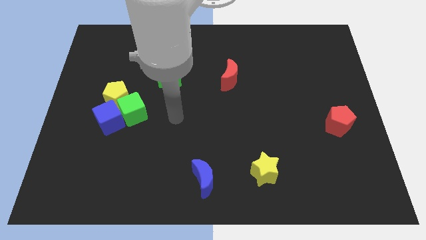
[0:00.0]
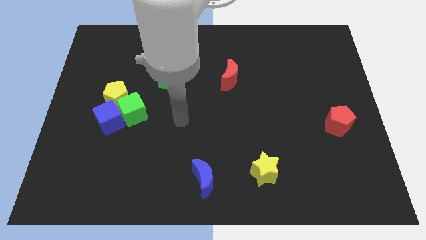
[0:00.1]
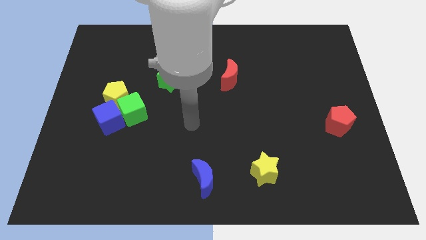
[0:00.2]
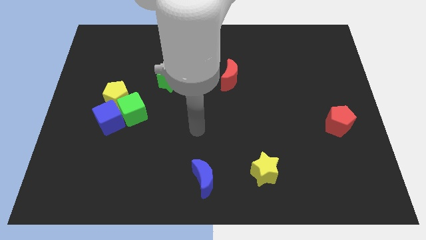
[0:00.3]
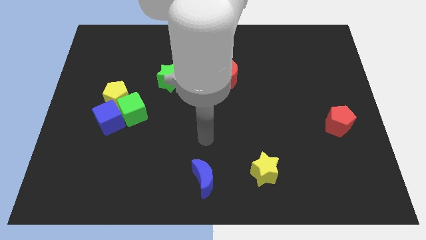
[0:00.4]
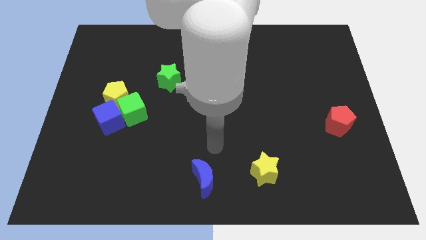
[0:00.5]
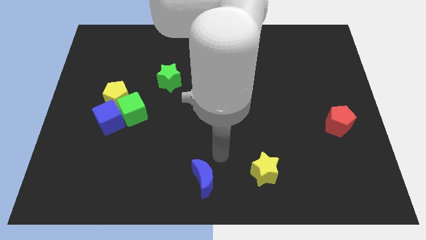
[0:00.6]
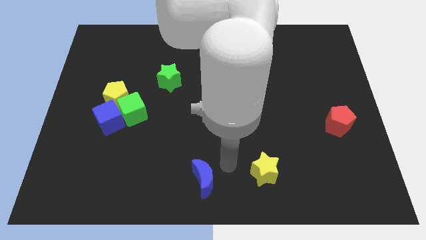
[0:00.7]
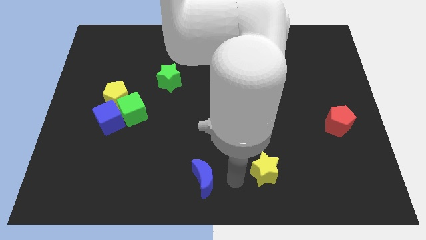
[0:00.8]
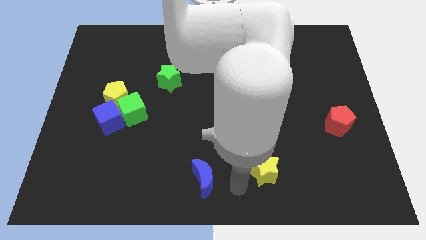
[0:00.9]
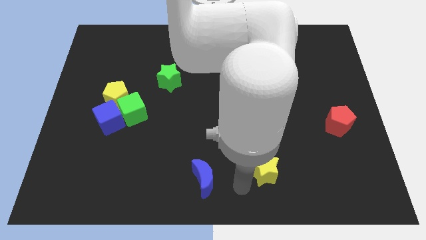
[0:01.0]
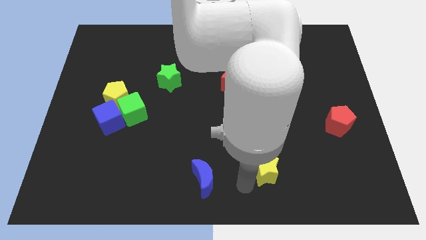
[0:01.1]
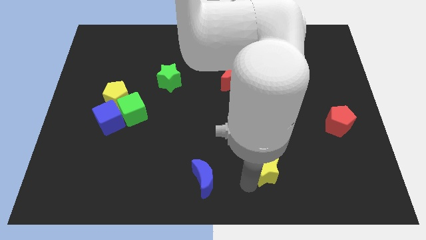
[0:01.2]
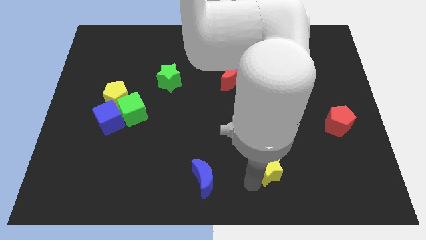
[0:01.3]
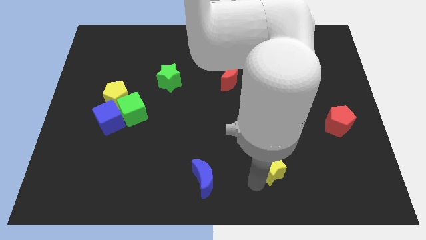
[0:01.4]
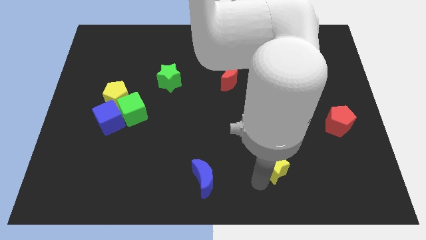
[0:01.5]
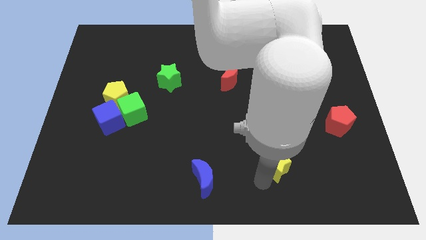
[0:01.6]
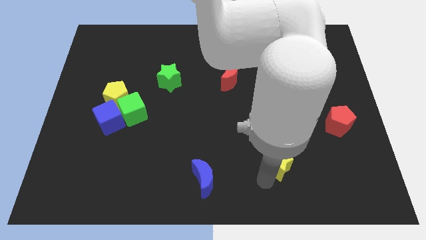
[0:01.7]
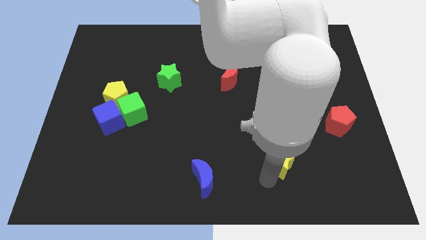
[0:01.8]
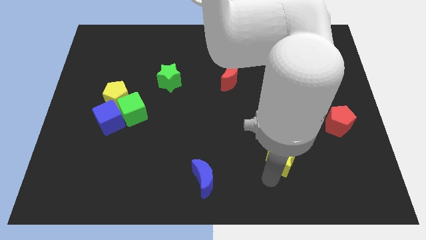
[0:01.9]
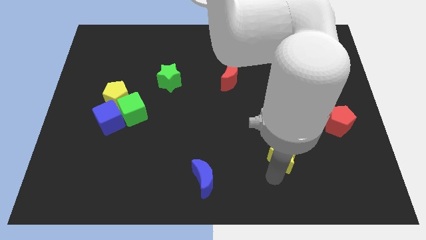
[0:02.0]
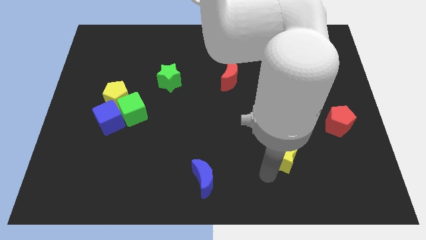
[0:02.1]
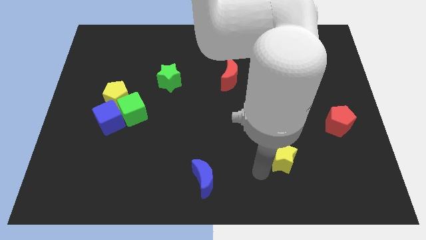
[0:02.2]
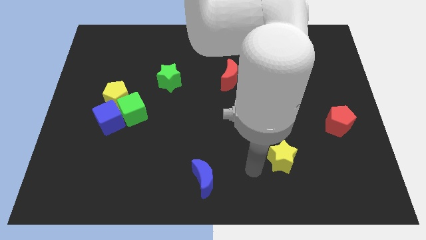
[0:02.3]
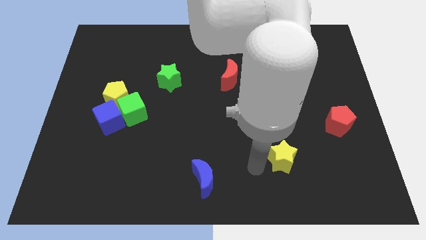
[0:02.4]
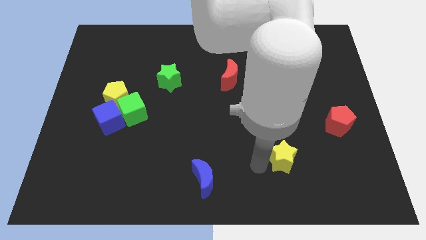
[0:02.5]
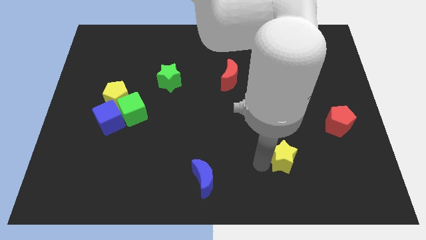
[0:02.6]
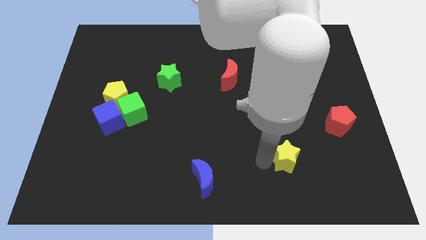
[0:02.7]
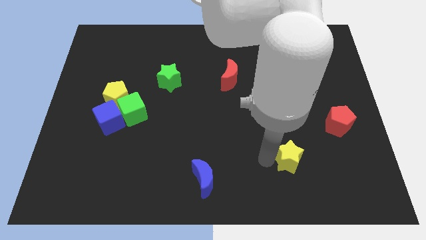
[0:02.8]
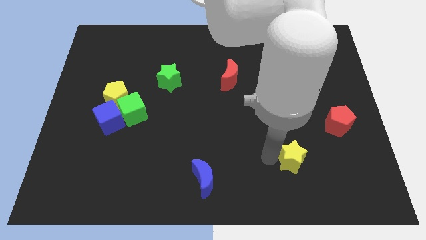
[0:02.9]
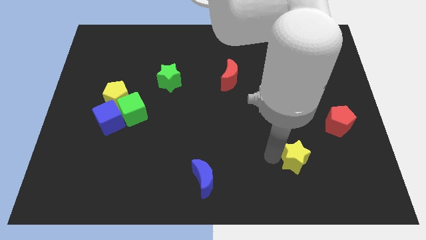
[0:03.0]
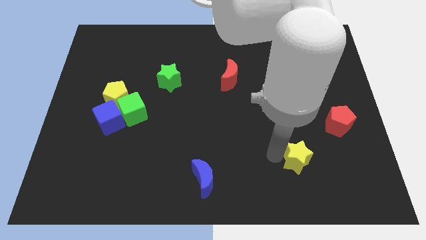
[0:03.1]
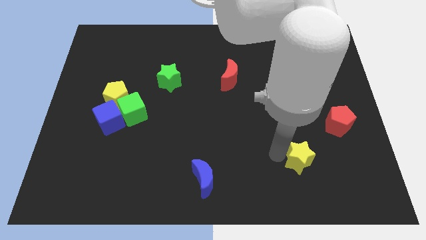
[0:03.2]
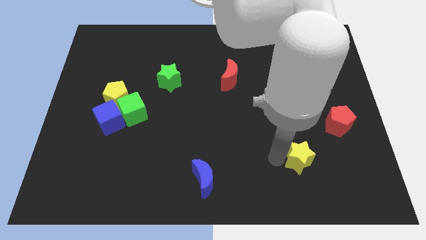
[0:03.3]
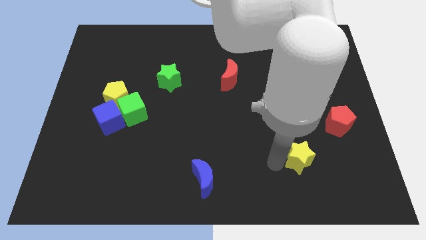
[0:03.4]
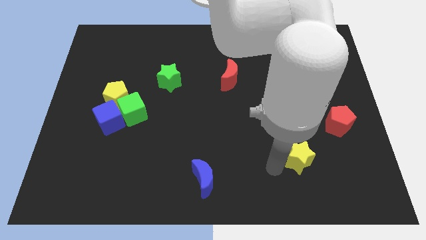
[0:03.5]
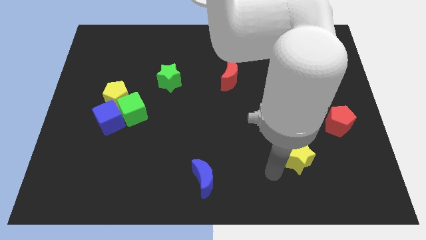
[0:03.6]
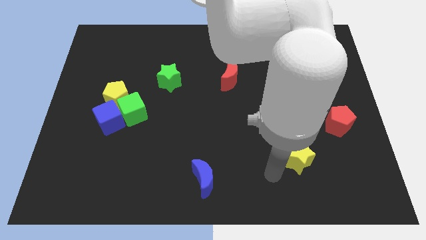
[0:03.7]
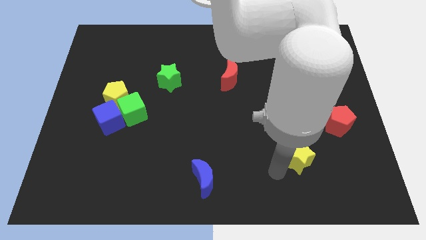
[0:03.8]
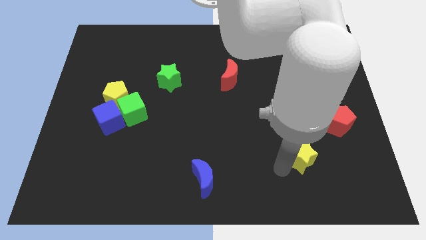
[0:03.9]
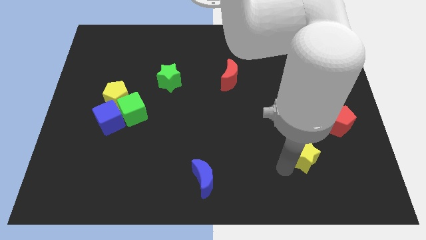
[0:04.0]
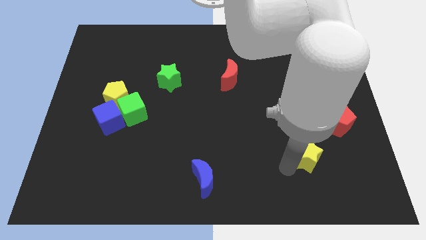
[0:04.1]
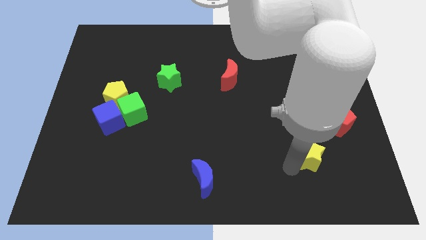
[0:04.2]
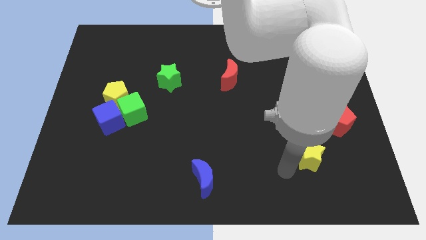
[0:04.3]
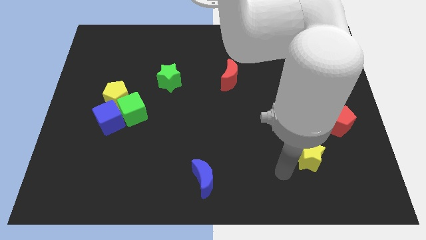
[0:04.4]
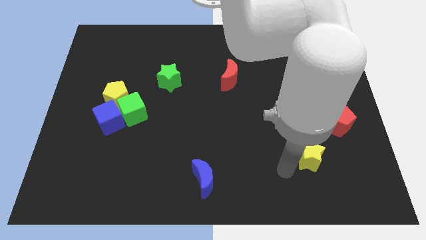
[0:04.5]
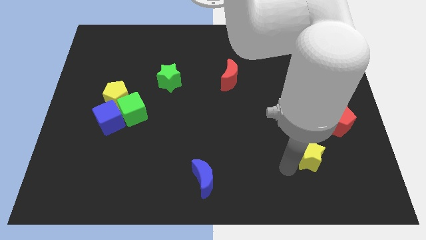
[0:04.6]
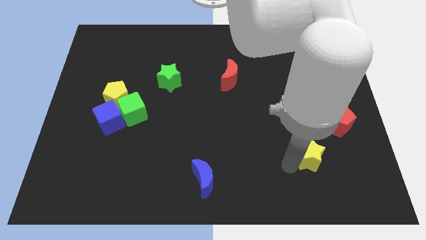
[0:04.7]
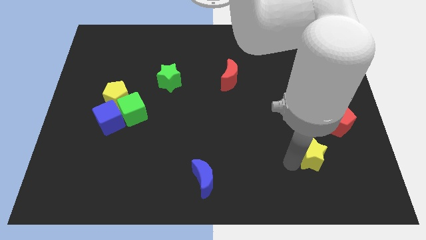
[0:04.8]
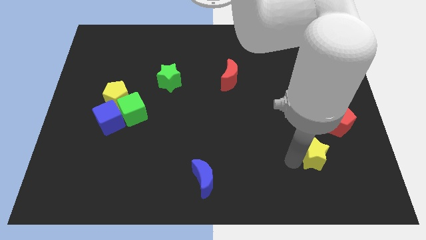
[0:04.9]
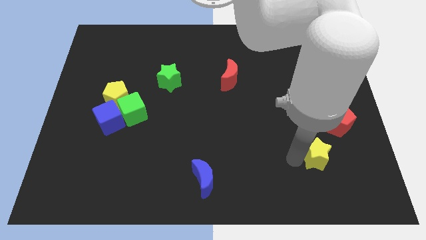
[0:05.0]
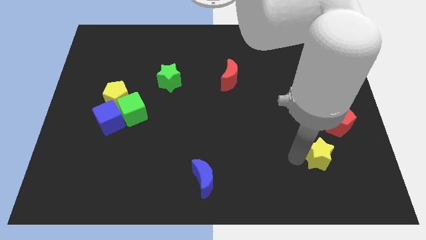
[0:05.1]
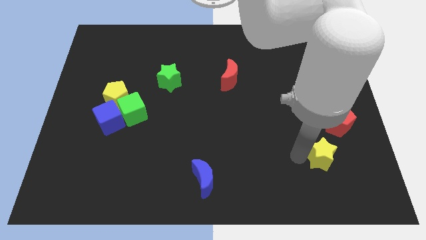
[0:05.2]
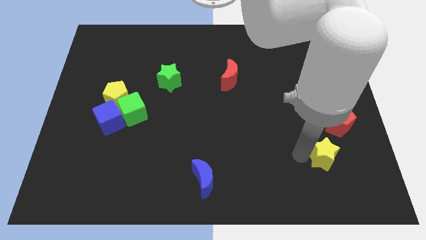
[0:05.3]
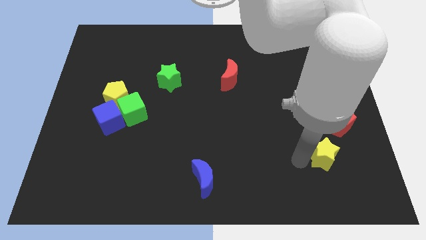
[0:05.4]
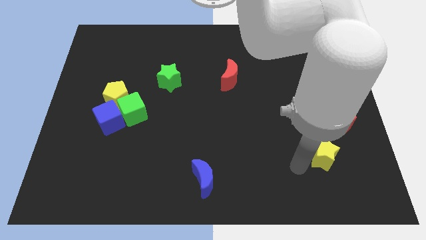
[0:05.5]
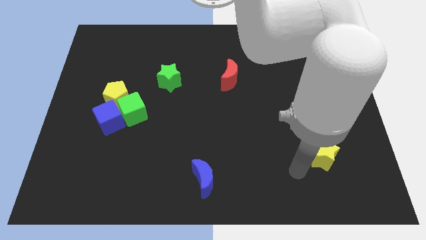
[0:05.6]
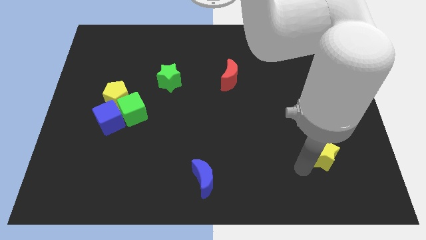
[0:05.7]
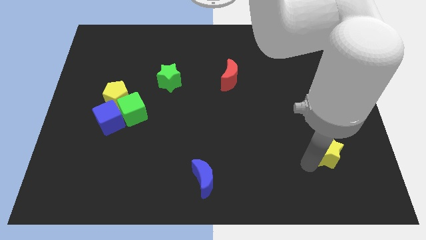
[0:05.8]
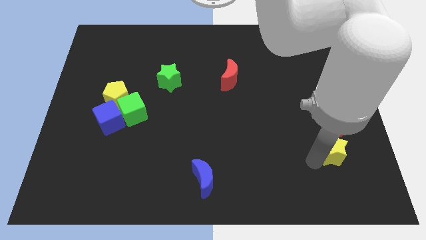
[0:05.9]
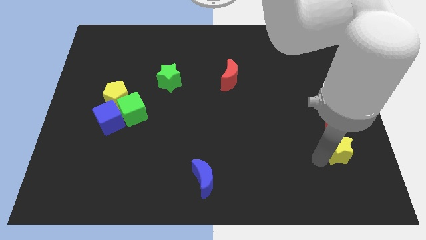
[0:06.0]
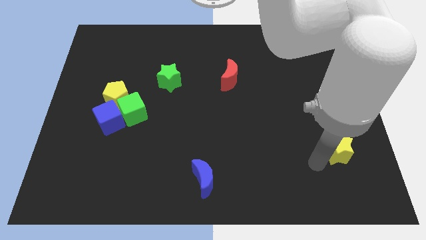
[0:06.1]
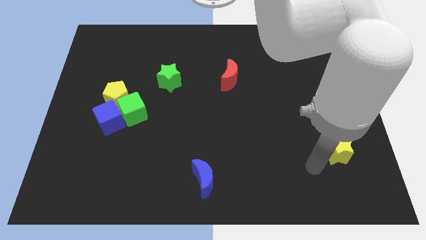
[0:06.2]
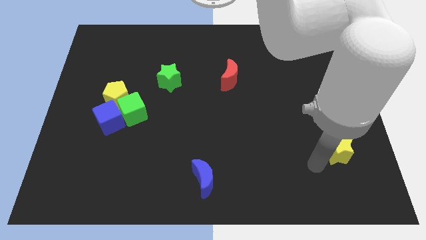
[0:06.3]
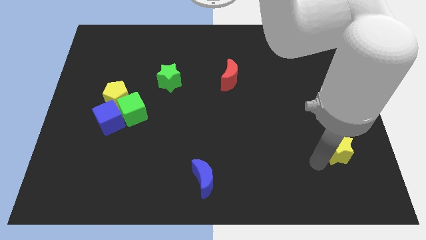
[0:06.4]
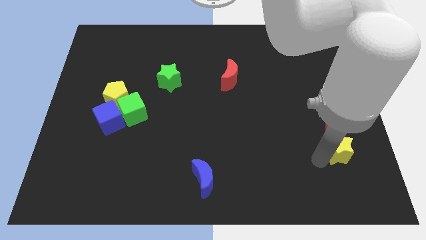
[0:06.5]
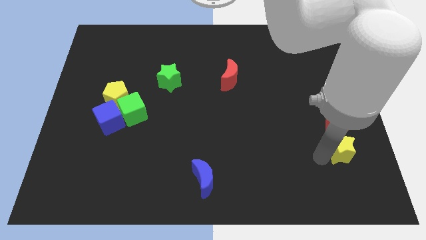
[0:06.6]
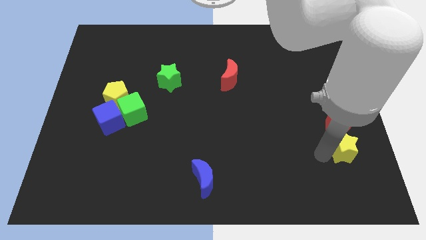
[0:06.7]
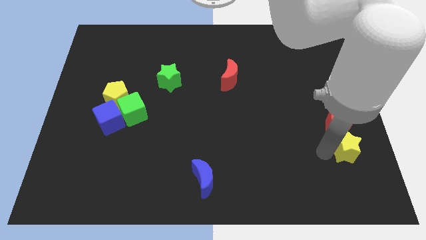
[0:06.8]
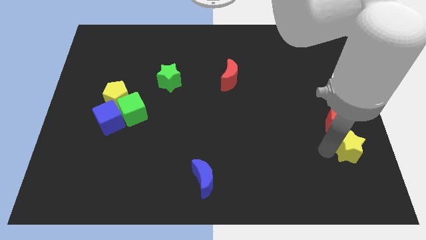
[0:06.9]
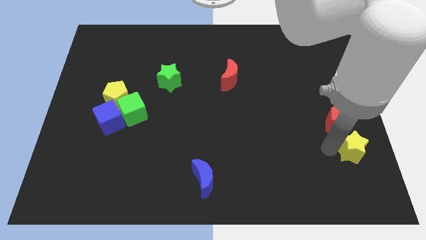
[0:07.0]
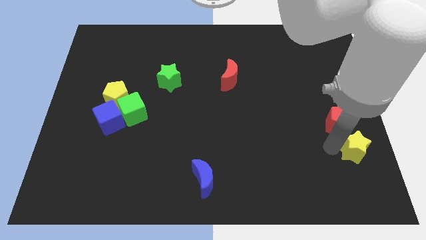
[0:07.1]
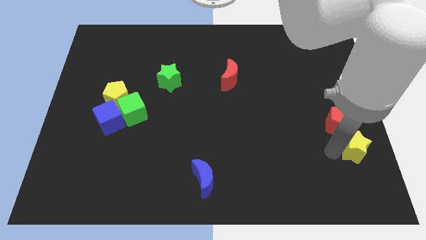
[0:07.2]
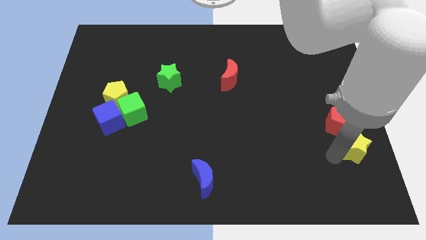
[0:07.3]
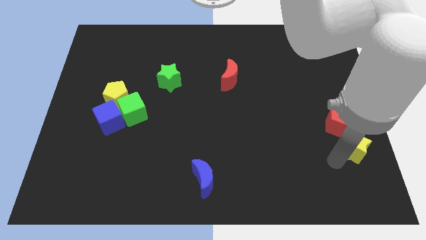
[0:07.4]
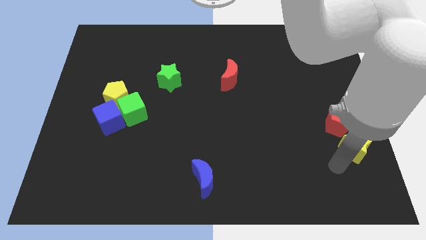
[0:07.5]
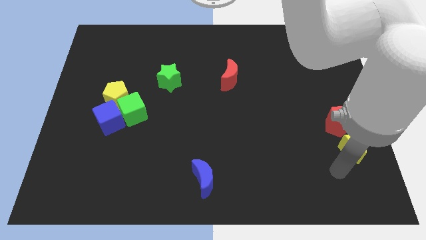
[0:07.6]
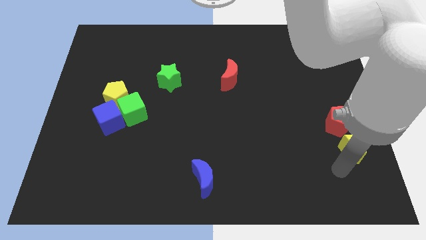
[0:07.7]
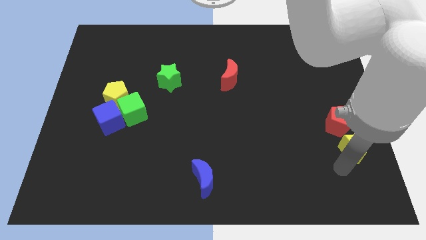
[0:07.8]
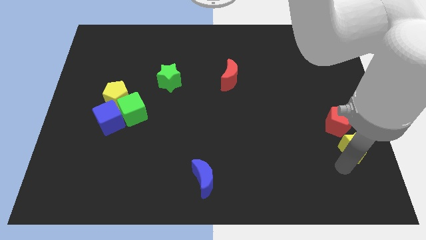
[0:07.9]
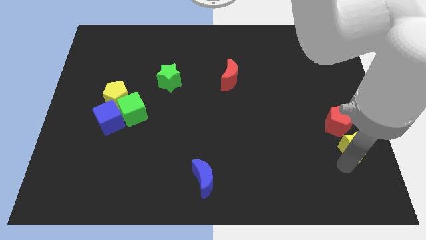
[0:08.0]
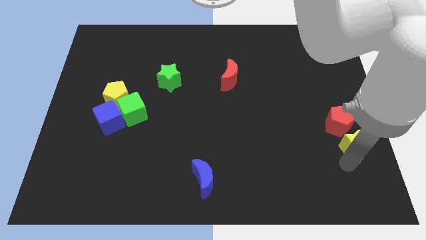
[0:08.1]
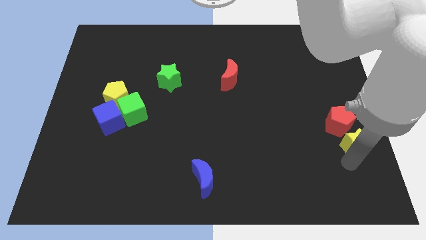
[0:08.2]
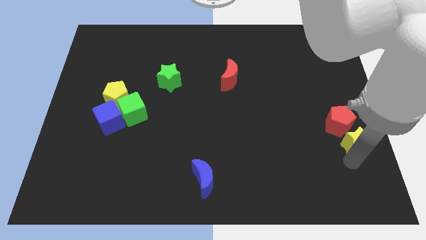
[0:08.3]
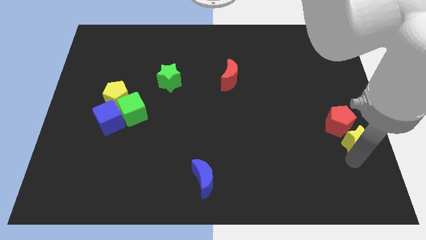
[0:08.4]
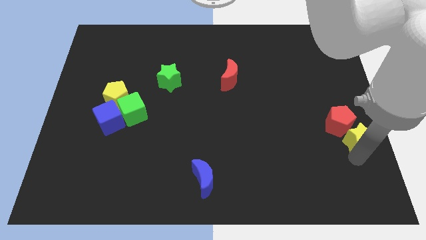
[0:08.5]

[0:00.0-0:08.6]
slide the yellow star to the center right
